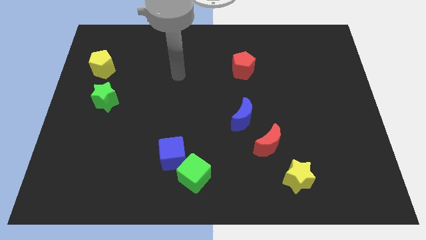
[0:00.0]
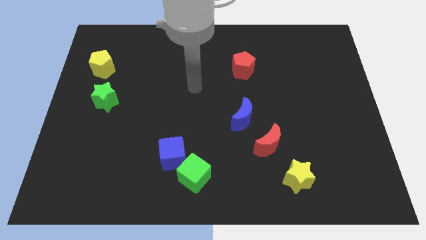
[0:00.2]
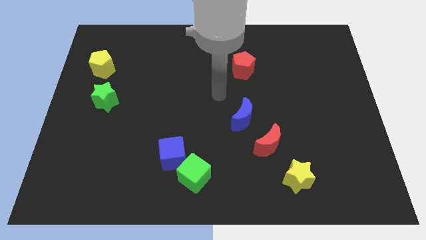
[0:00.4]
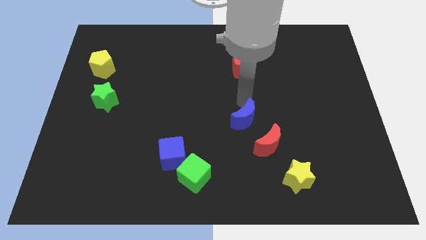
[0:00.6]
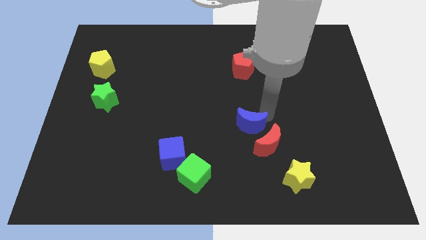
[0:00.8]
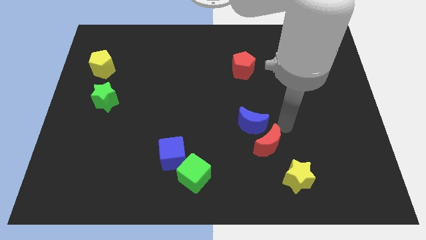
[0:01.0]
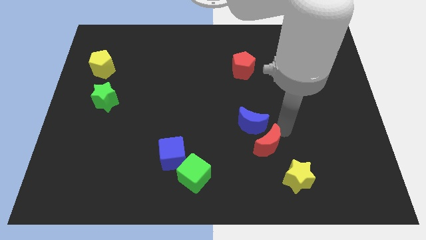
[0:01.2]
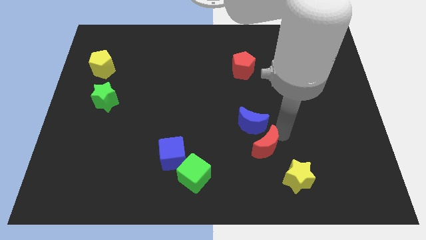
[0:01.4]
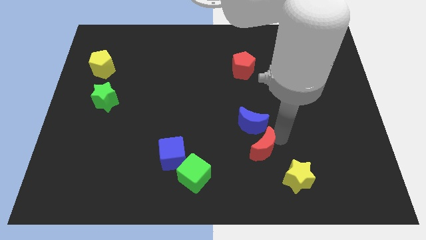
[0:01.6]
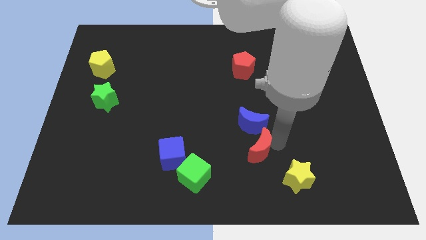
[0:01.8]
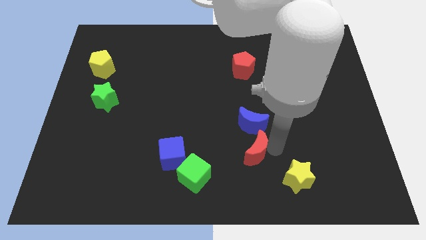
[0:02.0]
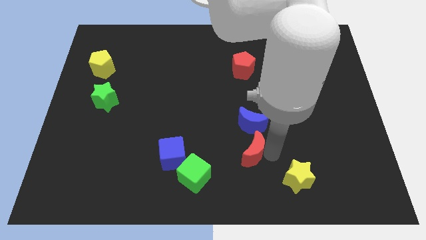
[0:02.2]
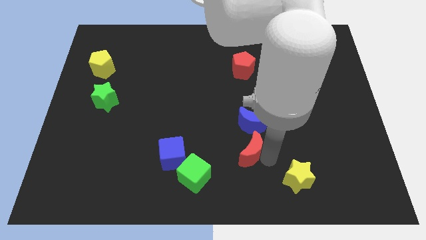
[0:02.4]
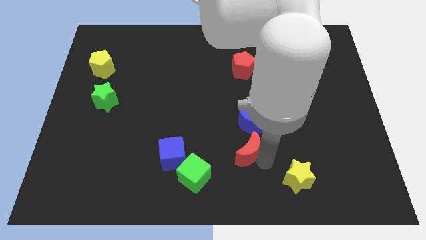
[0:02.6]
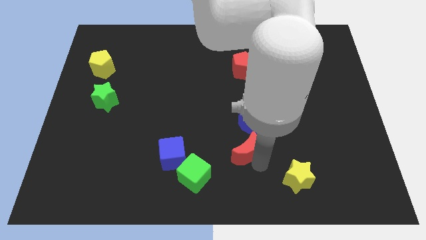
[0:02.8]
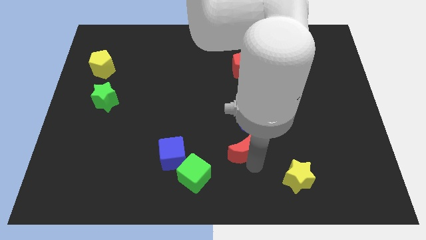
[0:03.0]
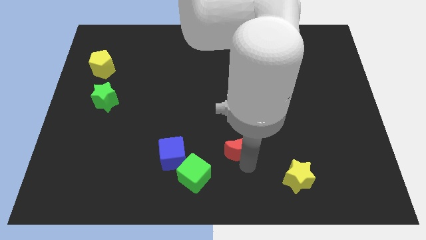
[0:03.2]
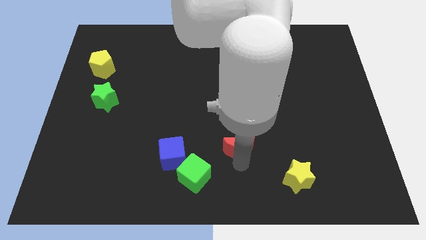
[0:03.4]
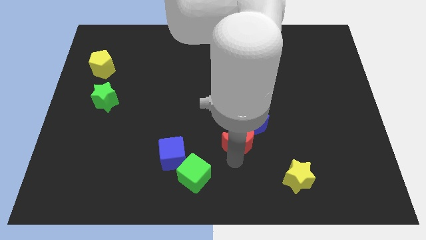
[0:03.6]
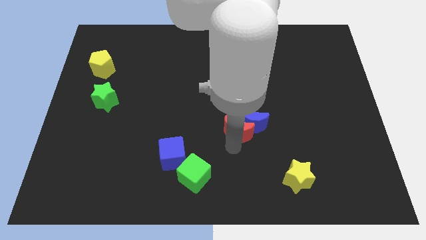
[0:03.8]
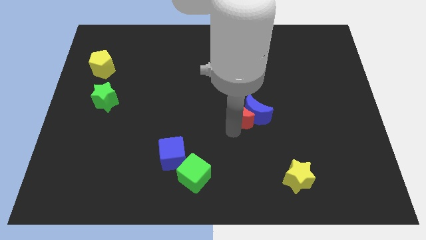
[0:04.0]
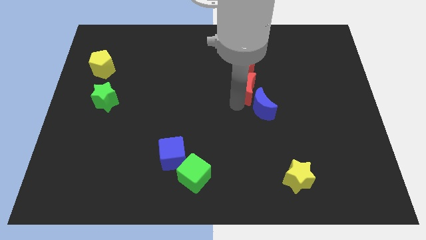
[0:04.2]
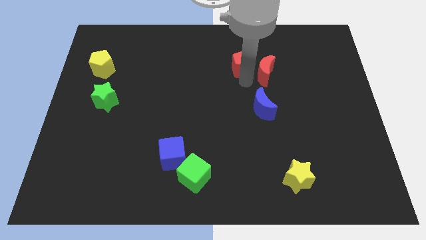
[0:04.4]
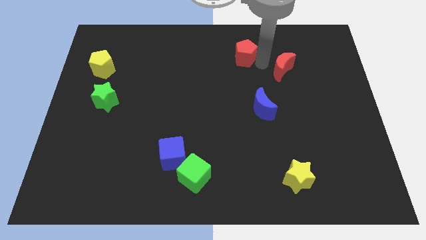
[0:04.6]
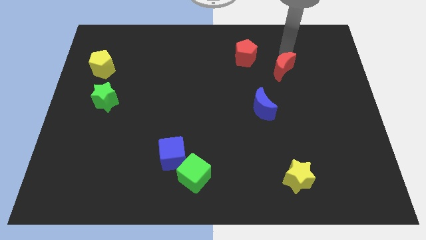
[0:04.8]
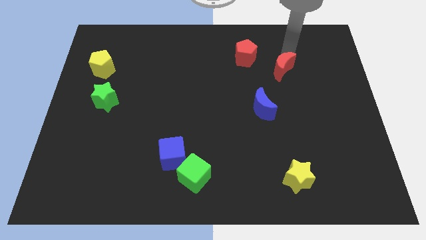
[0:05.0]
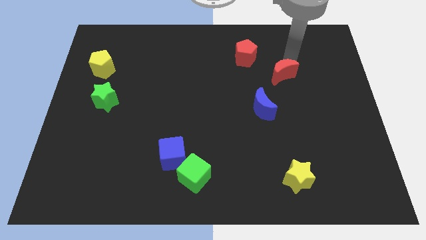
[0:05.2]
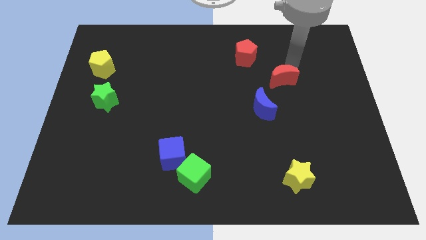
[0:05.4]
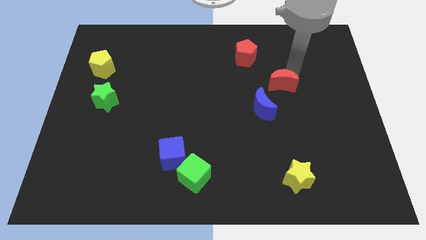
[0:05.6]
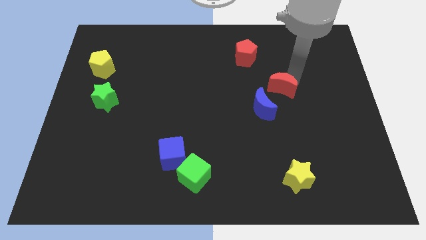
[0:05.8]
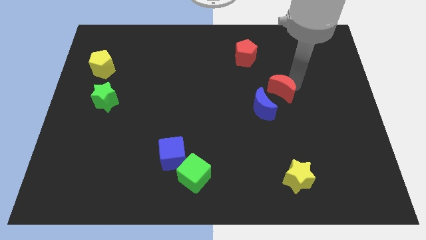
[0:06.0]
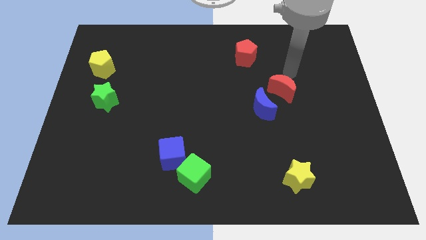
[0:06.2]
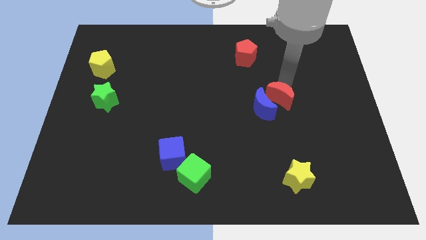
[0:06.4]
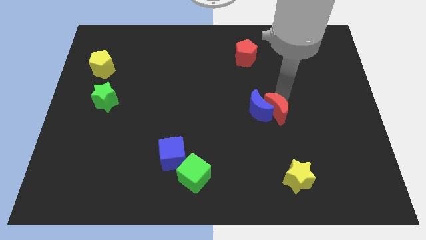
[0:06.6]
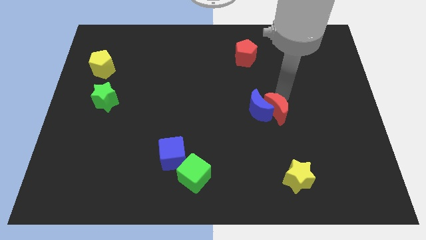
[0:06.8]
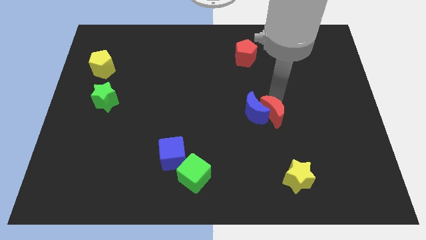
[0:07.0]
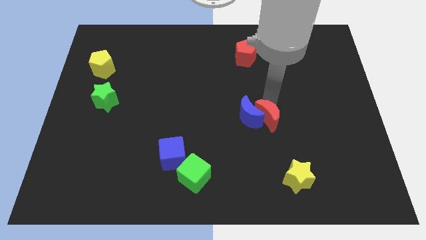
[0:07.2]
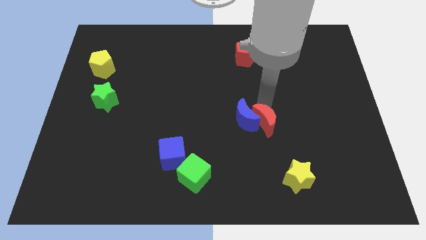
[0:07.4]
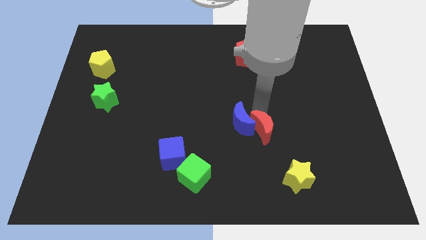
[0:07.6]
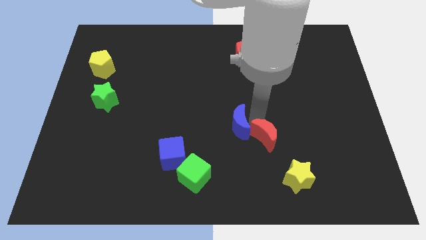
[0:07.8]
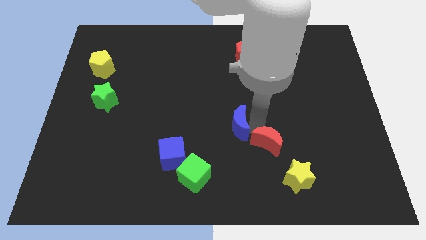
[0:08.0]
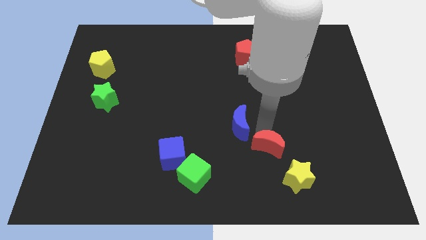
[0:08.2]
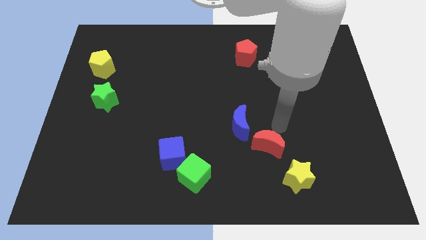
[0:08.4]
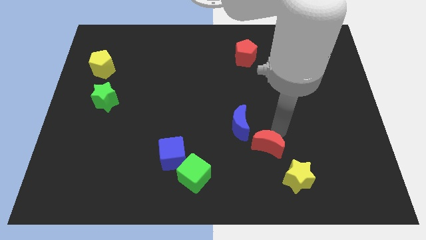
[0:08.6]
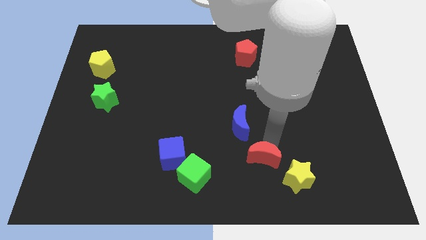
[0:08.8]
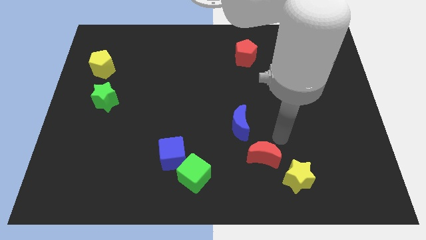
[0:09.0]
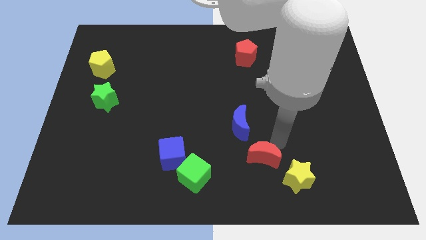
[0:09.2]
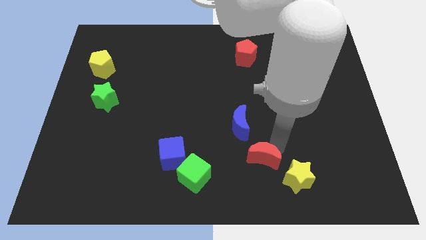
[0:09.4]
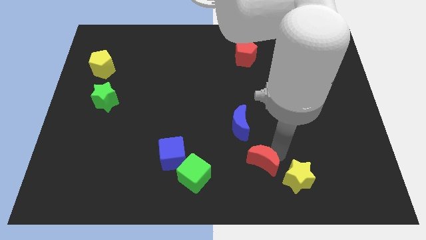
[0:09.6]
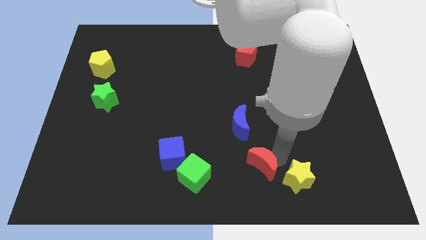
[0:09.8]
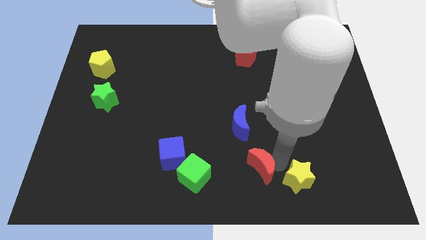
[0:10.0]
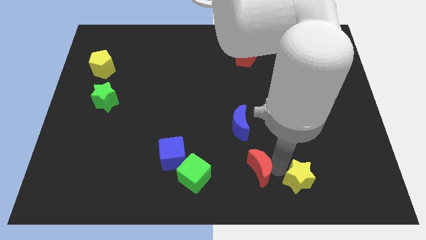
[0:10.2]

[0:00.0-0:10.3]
push the red moon to the bottom side

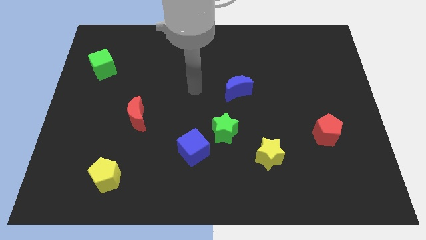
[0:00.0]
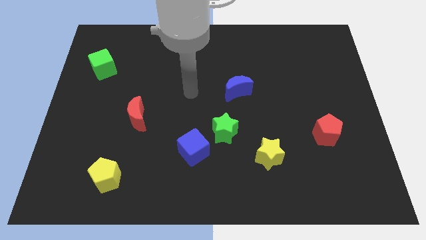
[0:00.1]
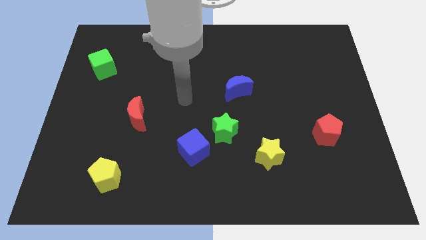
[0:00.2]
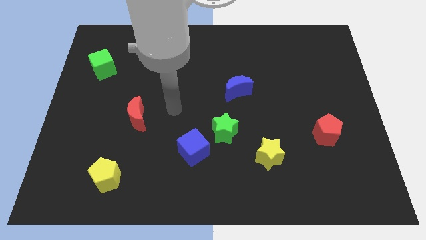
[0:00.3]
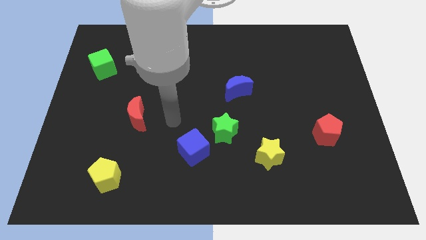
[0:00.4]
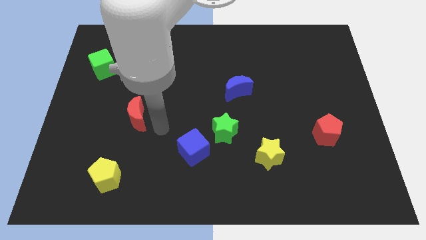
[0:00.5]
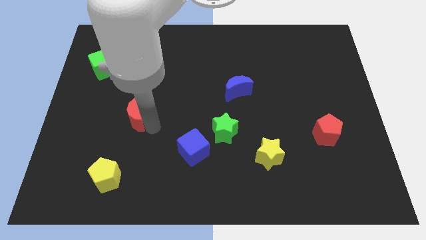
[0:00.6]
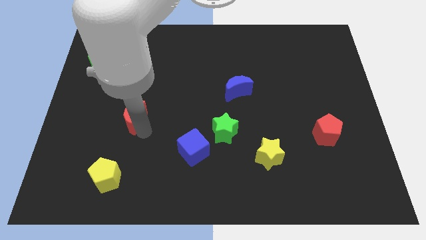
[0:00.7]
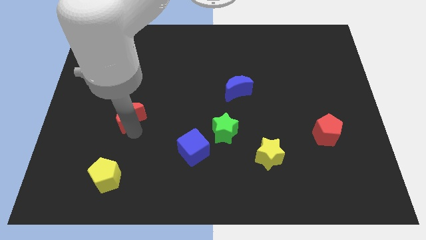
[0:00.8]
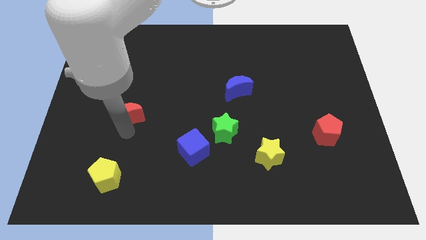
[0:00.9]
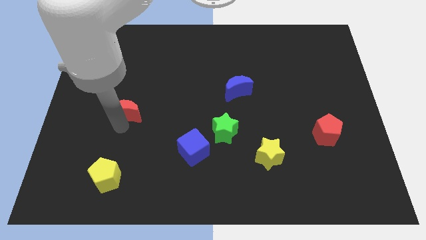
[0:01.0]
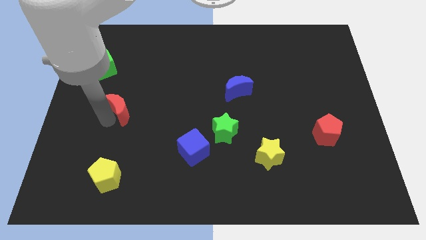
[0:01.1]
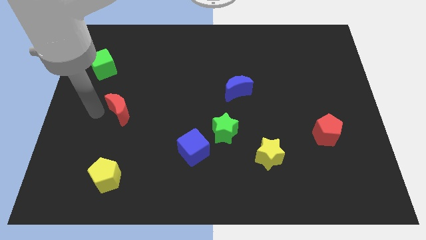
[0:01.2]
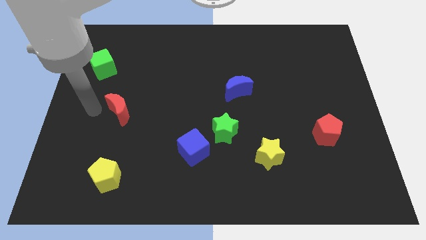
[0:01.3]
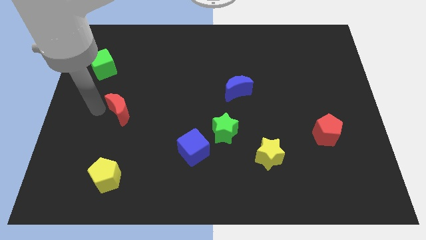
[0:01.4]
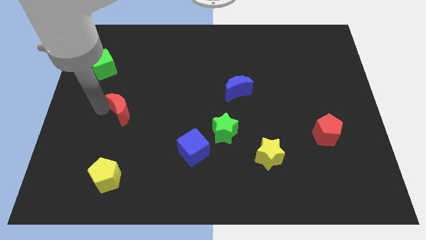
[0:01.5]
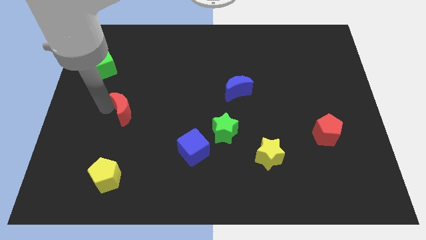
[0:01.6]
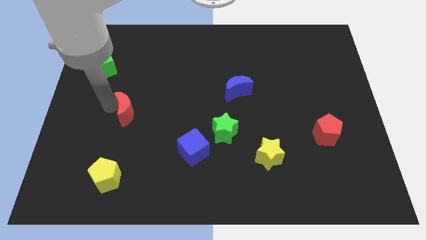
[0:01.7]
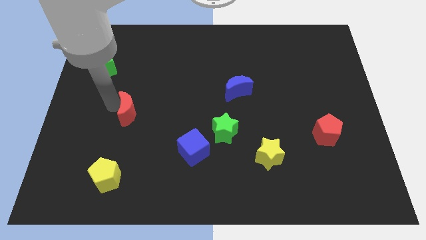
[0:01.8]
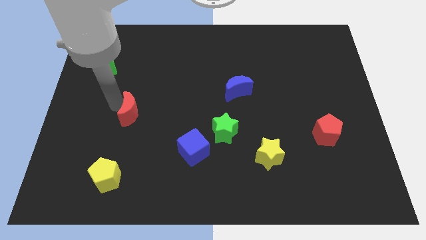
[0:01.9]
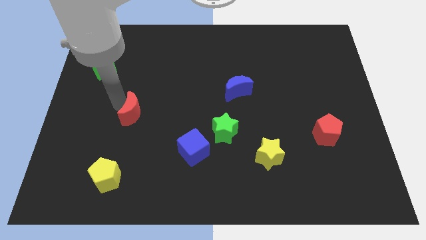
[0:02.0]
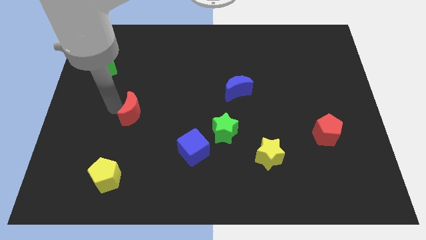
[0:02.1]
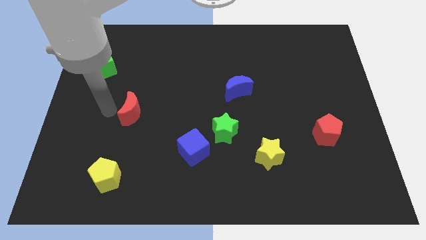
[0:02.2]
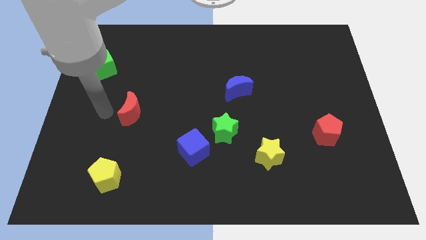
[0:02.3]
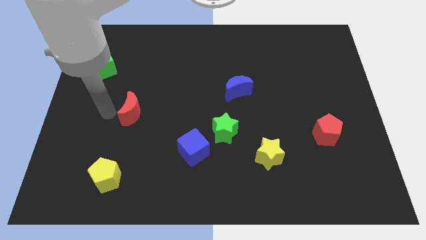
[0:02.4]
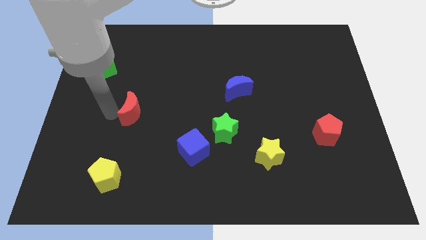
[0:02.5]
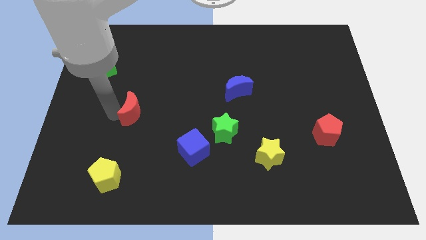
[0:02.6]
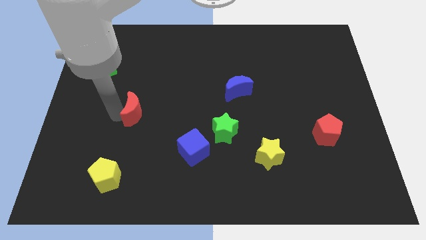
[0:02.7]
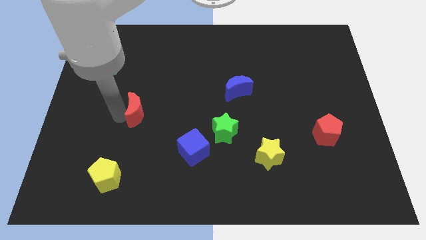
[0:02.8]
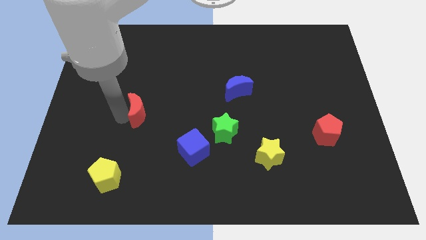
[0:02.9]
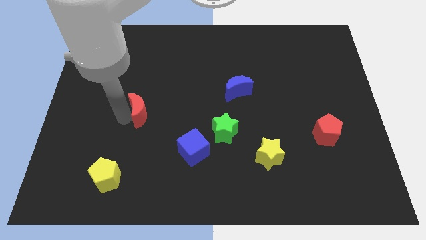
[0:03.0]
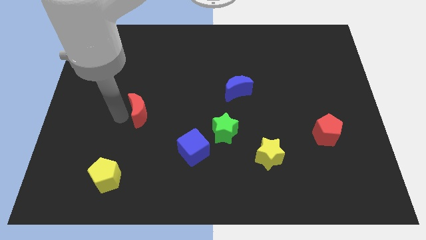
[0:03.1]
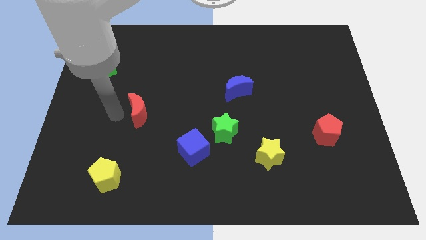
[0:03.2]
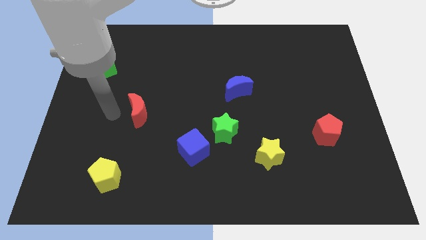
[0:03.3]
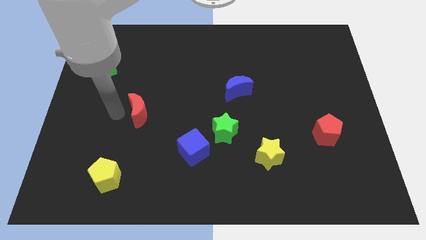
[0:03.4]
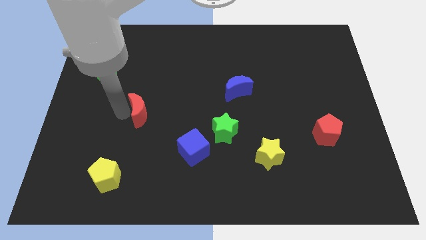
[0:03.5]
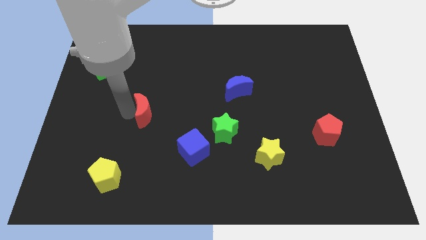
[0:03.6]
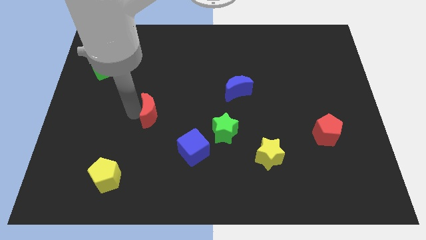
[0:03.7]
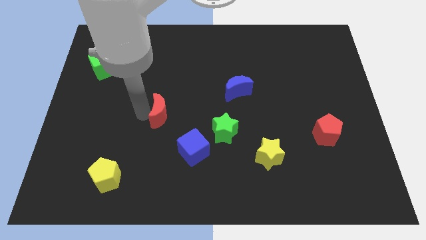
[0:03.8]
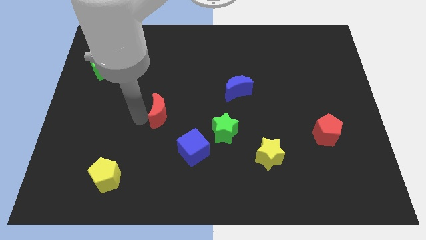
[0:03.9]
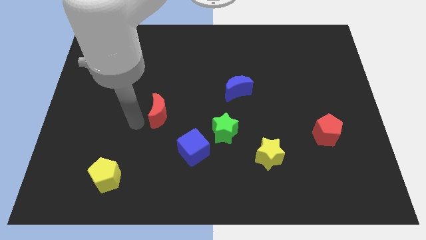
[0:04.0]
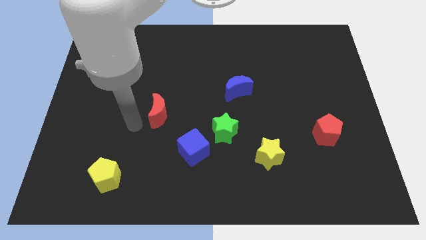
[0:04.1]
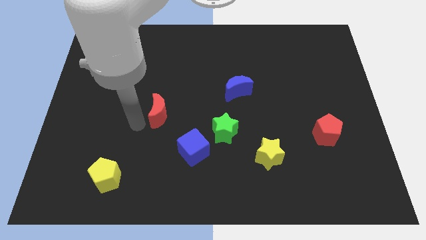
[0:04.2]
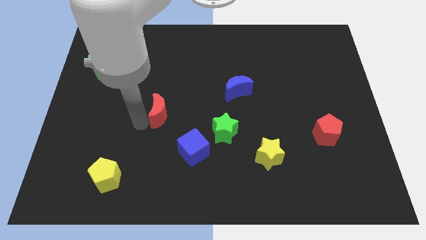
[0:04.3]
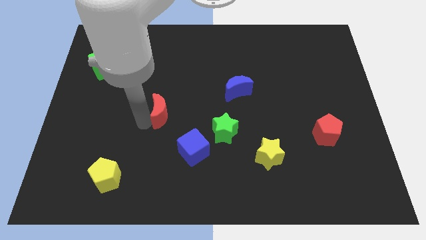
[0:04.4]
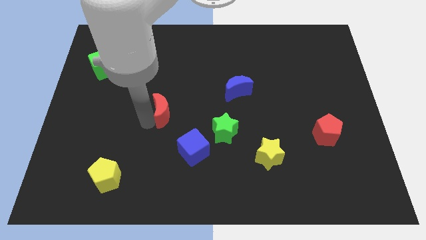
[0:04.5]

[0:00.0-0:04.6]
slide the red moon to the middle of the board
